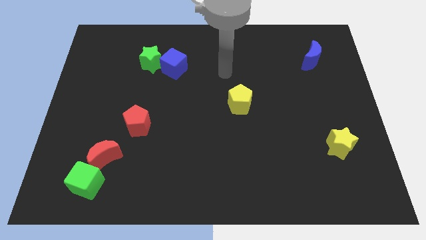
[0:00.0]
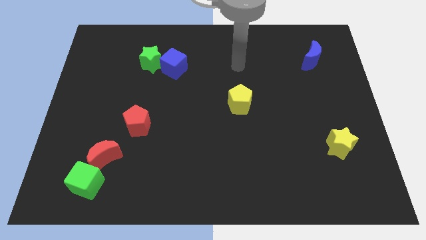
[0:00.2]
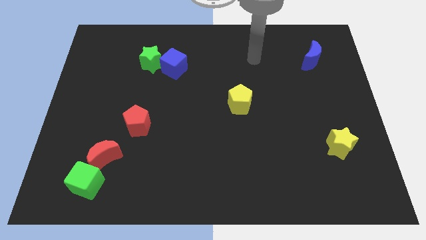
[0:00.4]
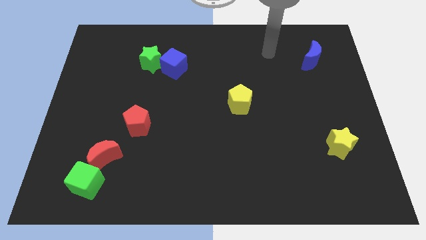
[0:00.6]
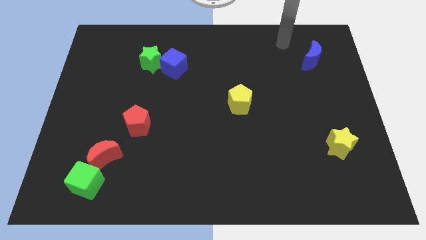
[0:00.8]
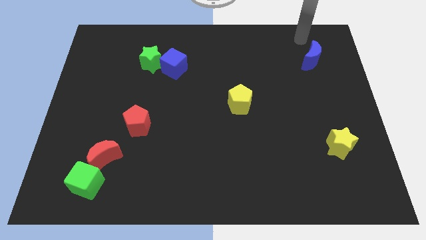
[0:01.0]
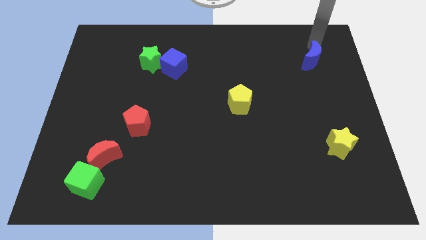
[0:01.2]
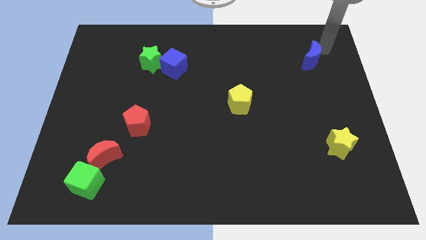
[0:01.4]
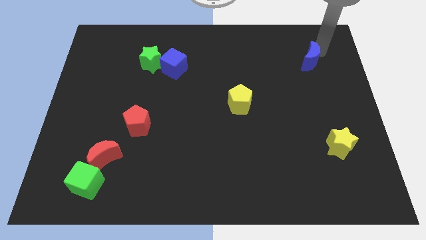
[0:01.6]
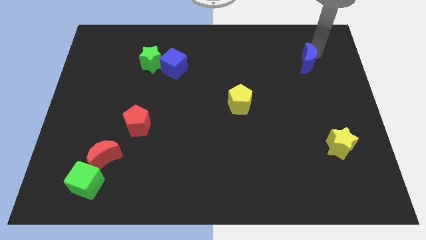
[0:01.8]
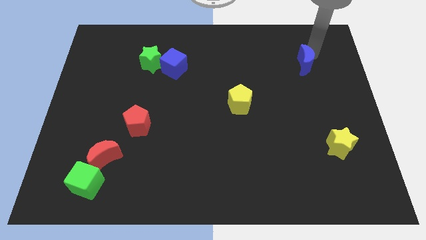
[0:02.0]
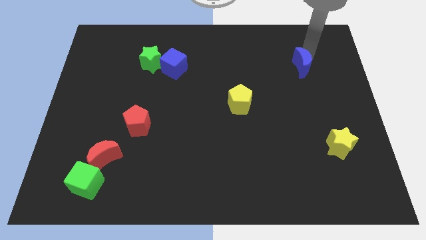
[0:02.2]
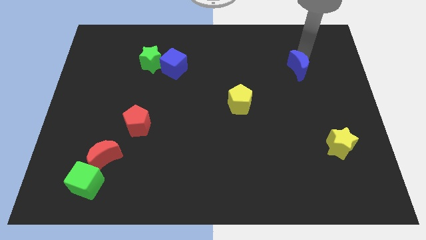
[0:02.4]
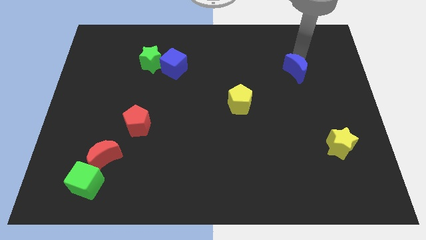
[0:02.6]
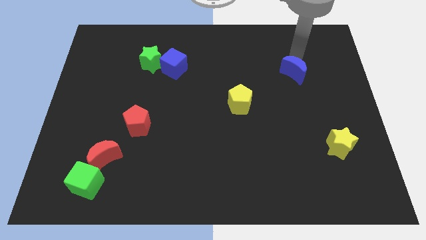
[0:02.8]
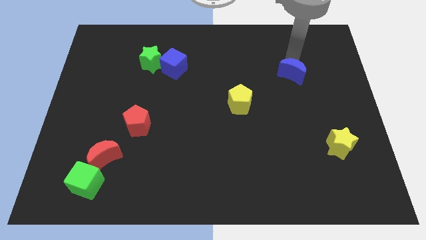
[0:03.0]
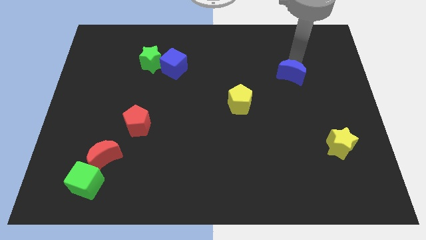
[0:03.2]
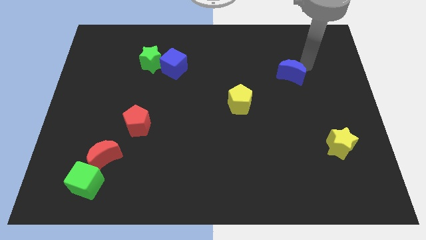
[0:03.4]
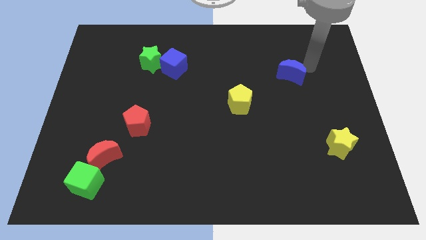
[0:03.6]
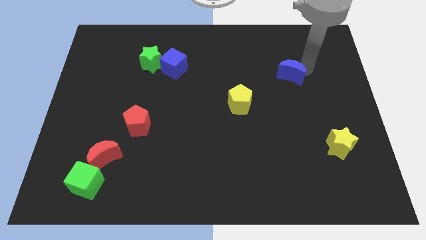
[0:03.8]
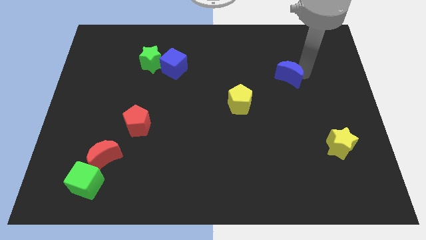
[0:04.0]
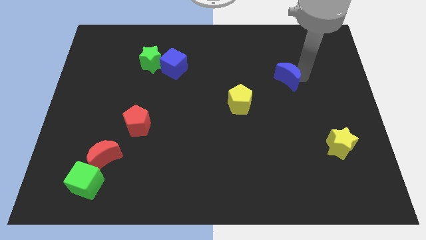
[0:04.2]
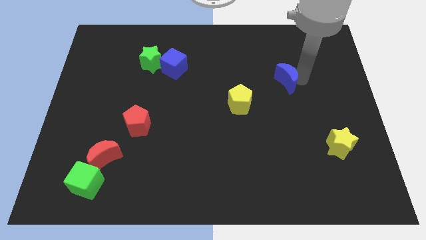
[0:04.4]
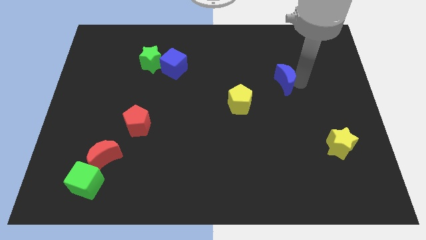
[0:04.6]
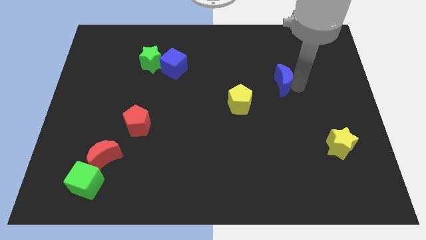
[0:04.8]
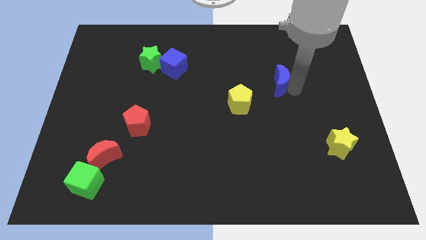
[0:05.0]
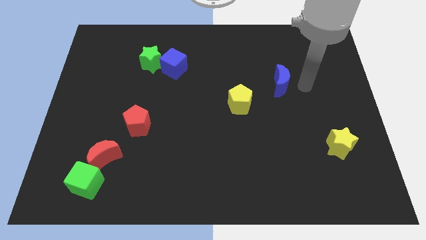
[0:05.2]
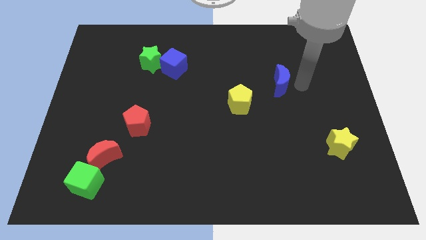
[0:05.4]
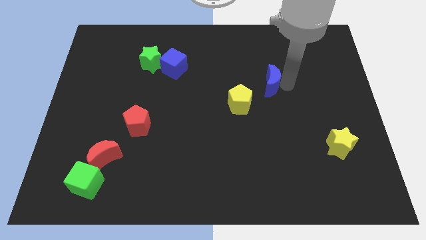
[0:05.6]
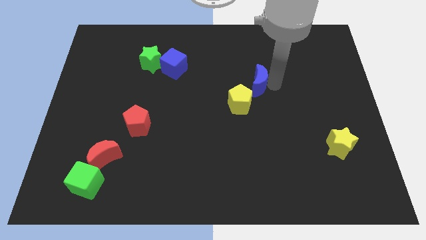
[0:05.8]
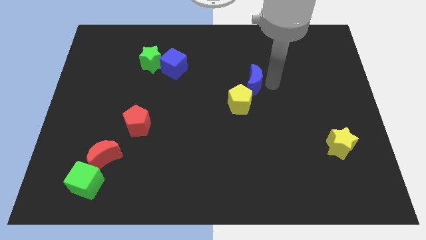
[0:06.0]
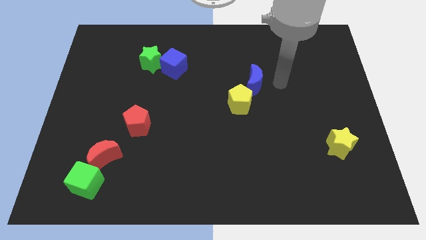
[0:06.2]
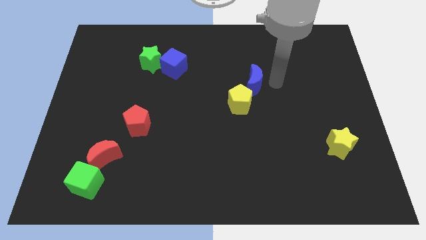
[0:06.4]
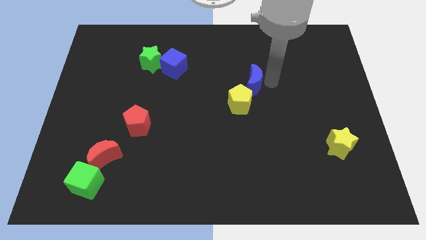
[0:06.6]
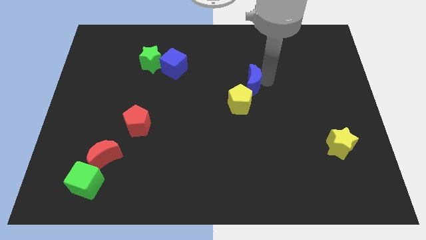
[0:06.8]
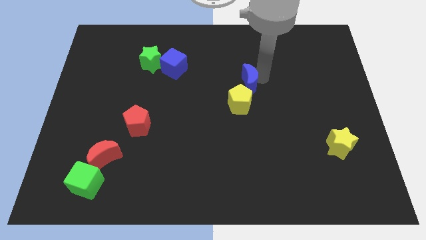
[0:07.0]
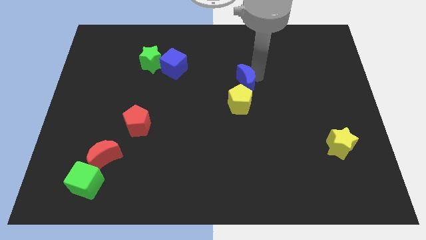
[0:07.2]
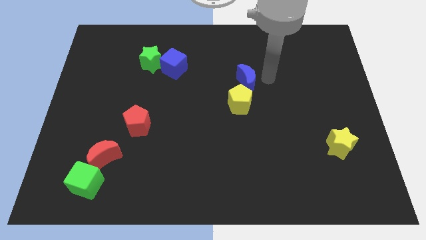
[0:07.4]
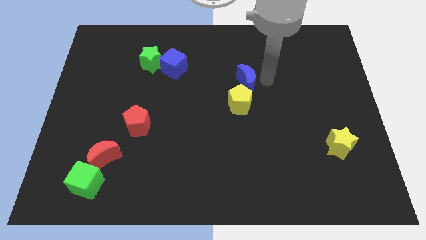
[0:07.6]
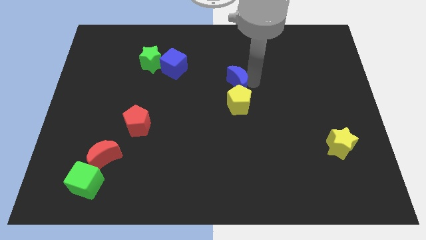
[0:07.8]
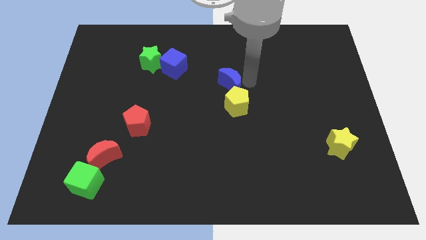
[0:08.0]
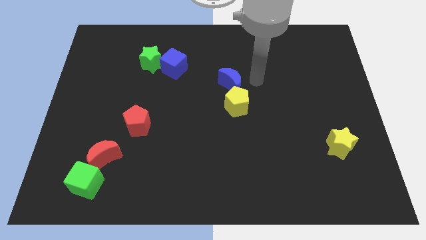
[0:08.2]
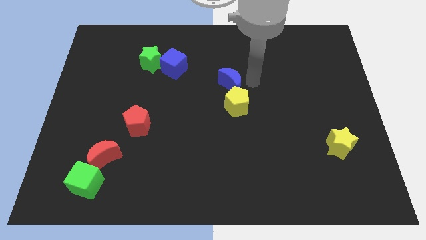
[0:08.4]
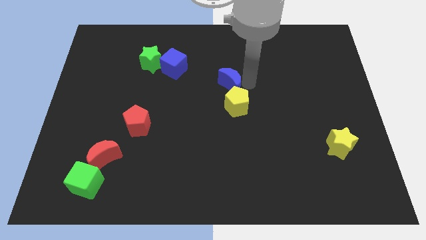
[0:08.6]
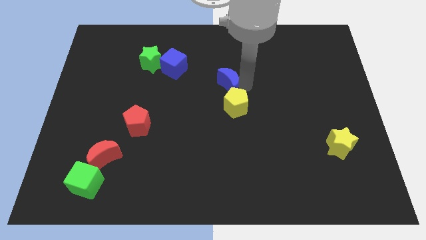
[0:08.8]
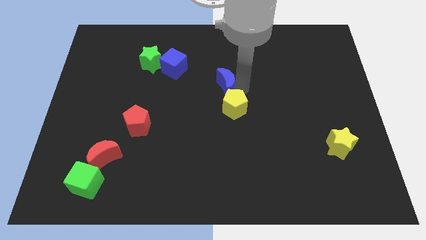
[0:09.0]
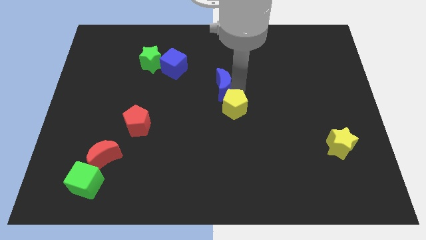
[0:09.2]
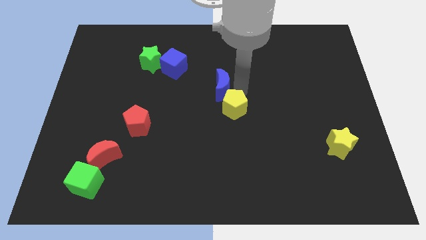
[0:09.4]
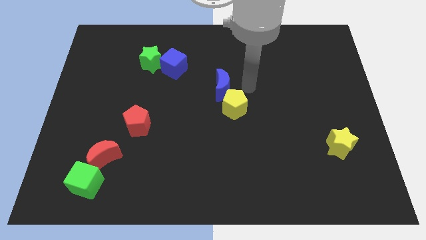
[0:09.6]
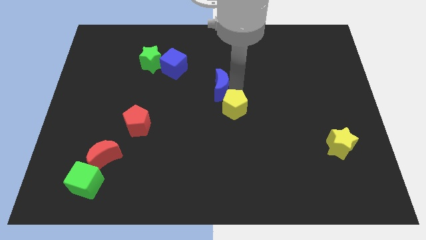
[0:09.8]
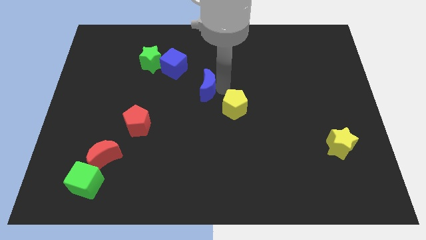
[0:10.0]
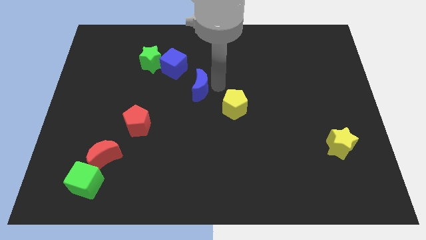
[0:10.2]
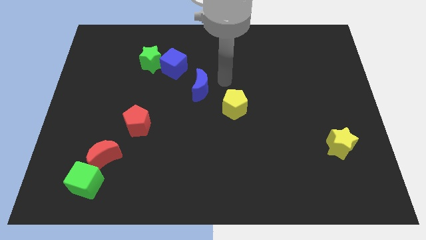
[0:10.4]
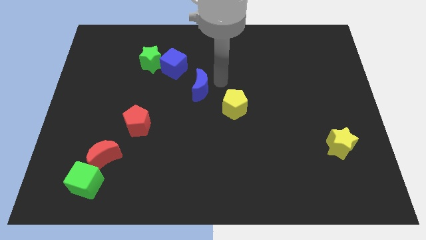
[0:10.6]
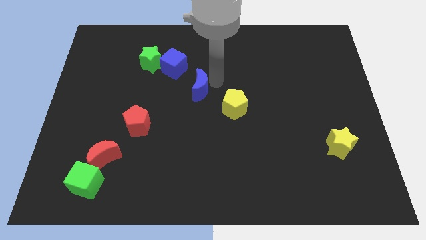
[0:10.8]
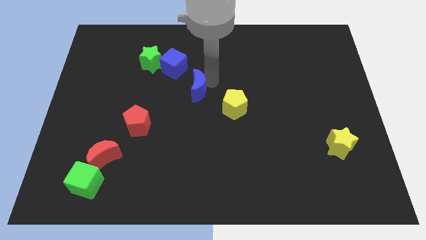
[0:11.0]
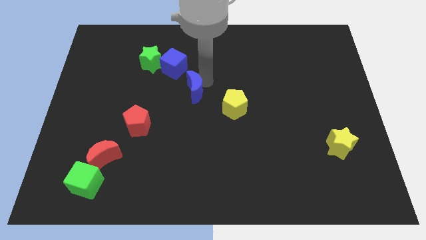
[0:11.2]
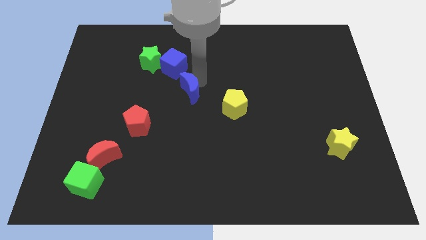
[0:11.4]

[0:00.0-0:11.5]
slide the blue moon below the blue cube

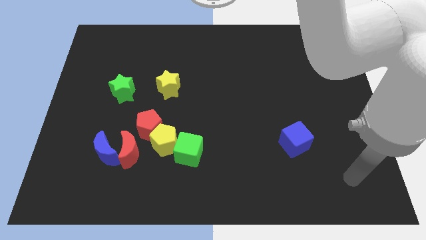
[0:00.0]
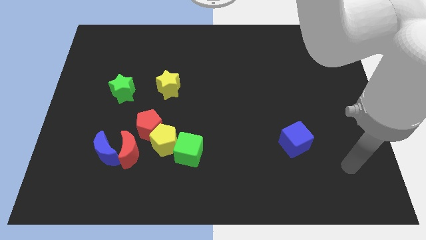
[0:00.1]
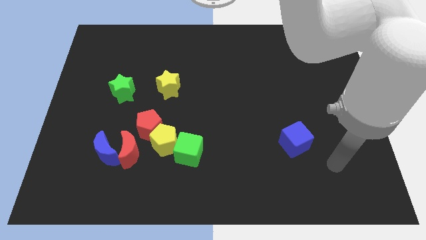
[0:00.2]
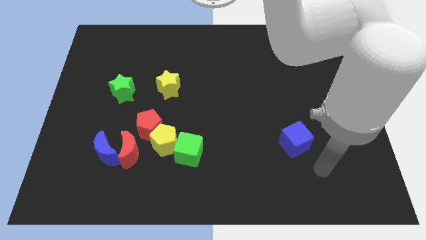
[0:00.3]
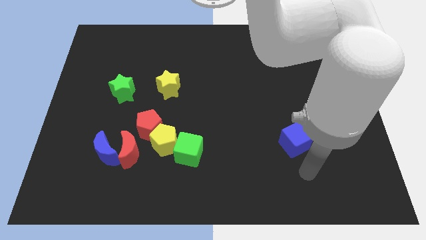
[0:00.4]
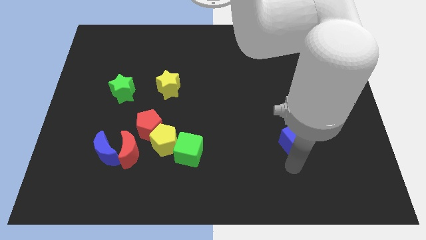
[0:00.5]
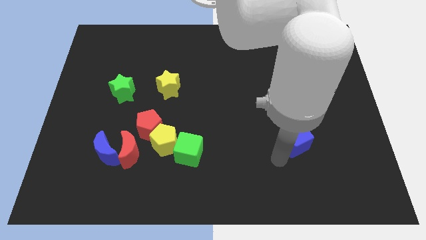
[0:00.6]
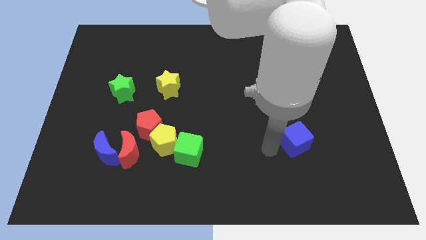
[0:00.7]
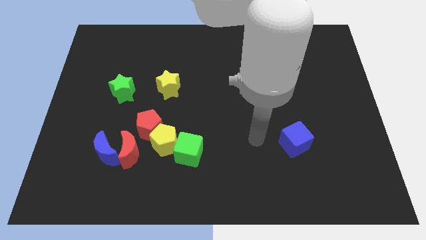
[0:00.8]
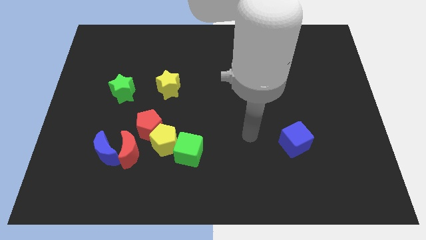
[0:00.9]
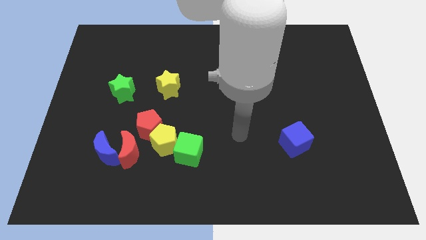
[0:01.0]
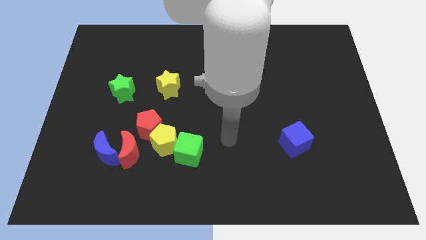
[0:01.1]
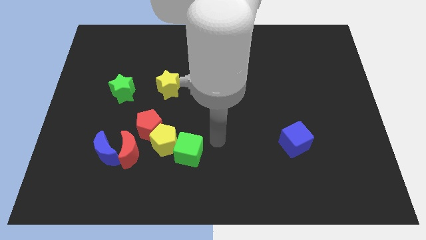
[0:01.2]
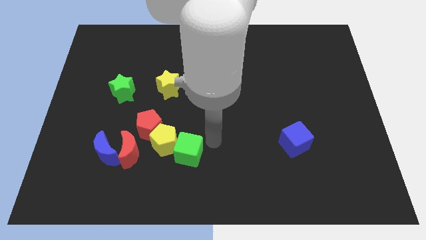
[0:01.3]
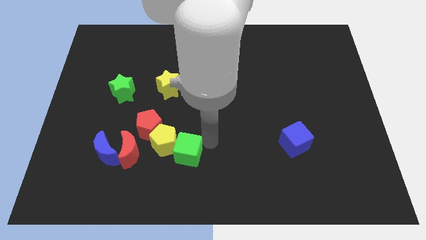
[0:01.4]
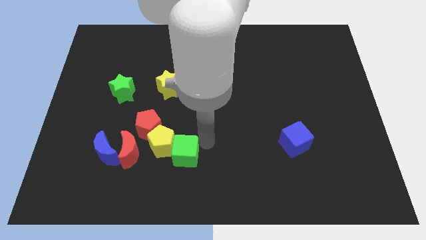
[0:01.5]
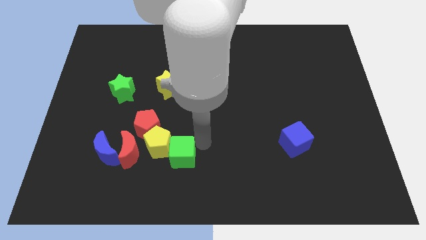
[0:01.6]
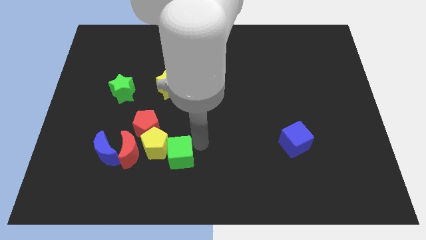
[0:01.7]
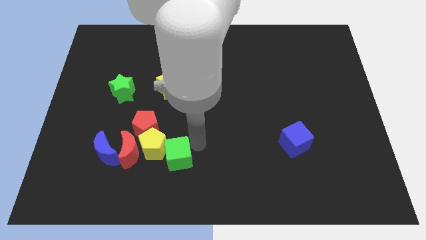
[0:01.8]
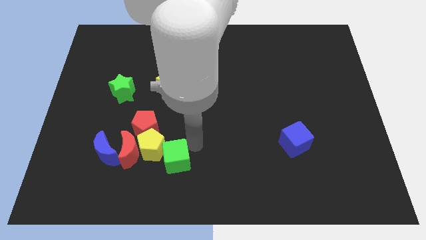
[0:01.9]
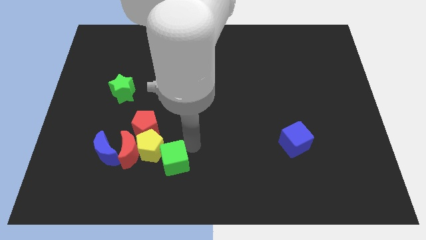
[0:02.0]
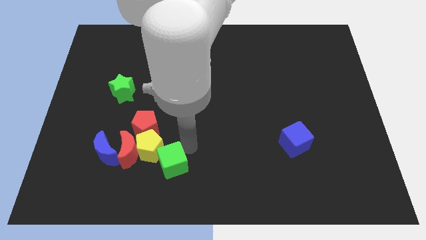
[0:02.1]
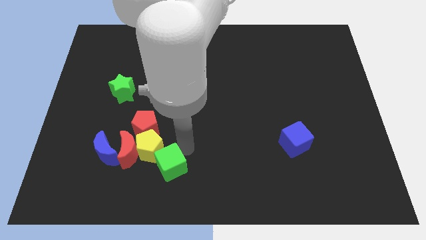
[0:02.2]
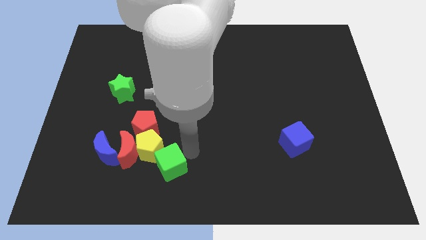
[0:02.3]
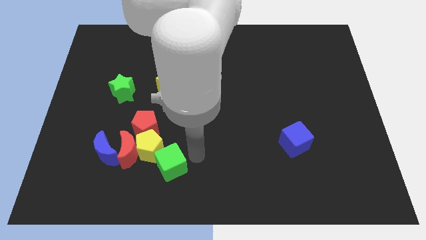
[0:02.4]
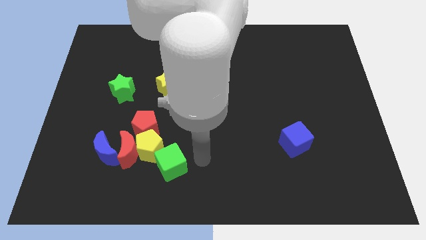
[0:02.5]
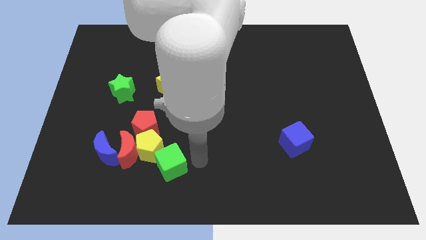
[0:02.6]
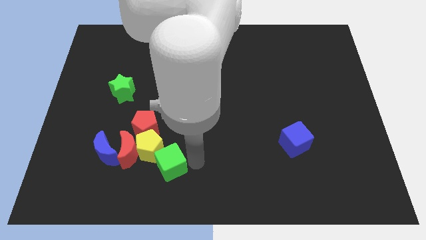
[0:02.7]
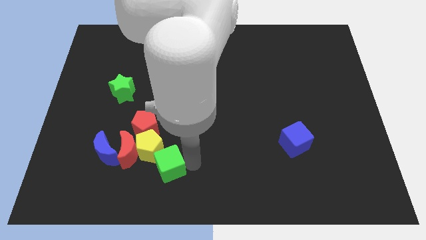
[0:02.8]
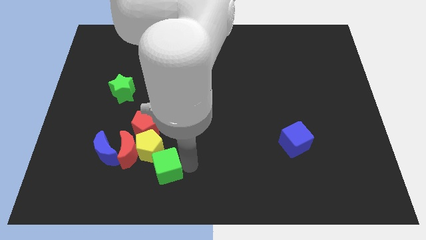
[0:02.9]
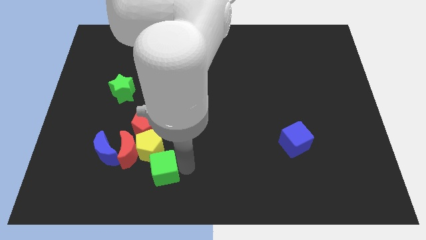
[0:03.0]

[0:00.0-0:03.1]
put the green cube below the red pentagon
